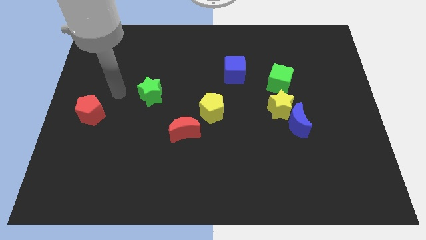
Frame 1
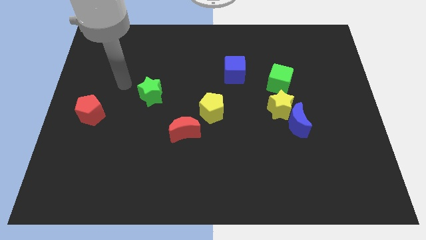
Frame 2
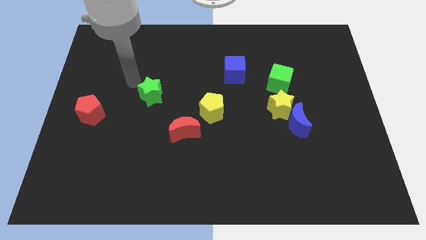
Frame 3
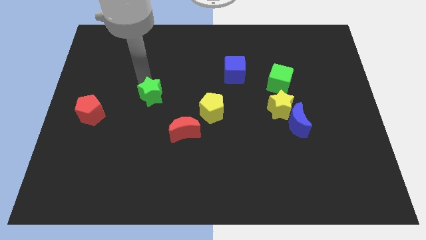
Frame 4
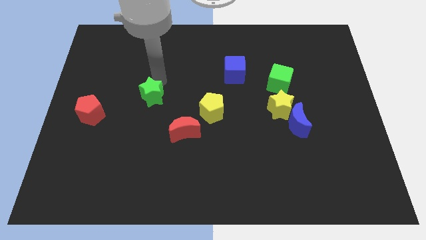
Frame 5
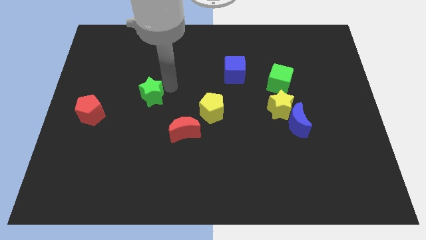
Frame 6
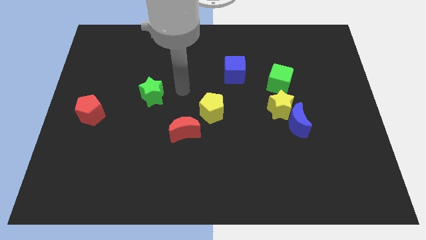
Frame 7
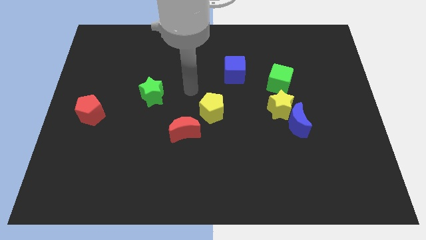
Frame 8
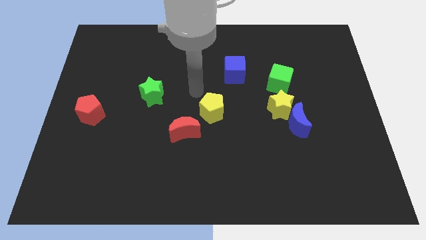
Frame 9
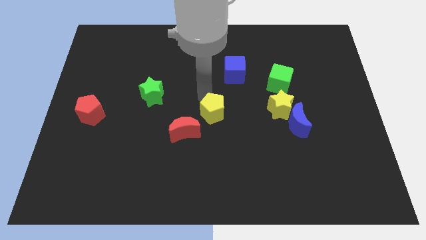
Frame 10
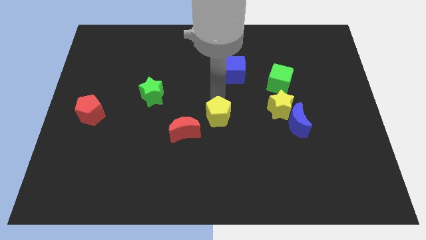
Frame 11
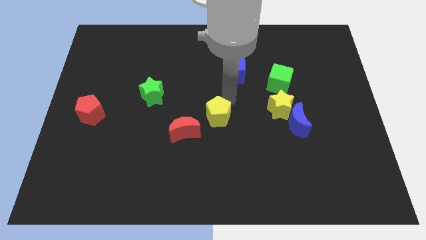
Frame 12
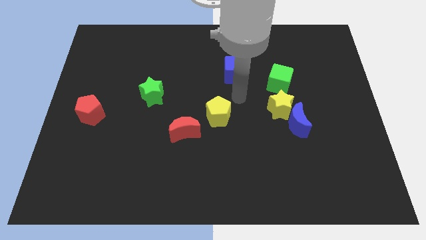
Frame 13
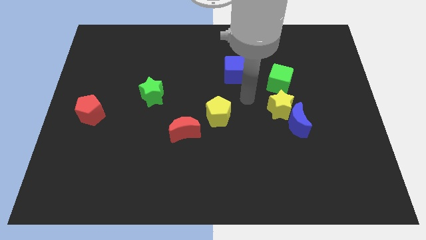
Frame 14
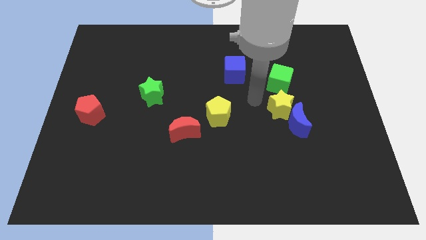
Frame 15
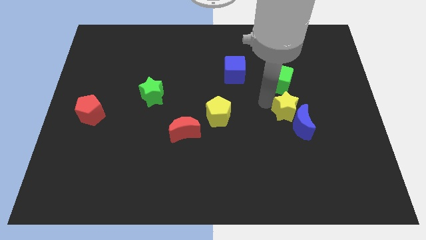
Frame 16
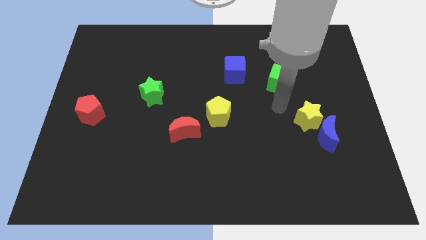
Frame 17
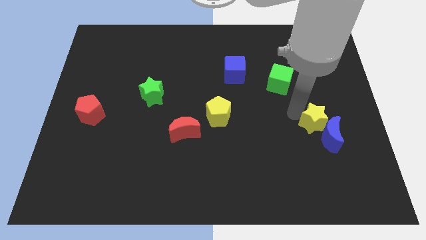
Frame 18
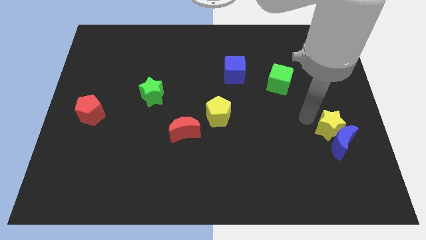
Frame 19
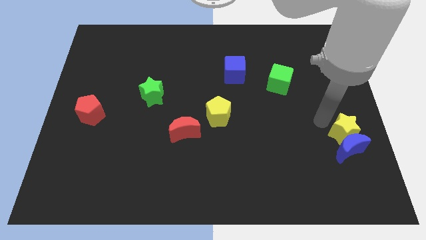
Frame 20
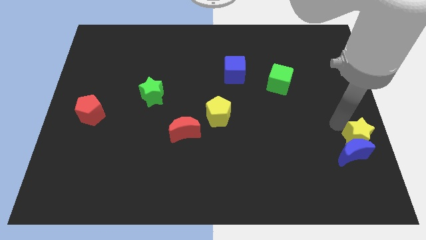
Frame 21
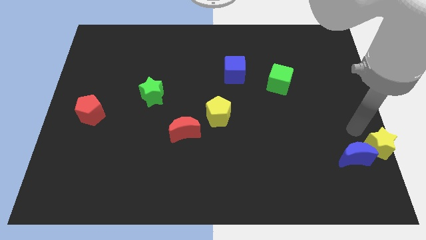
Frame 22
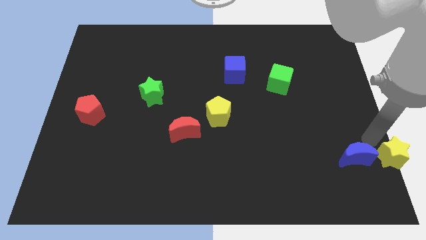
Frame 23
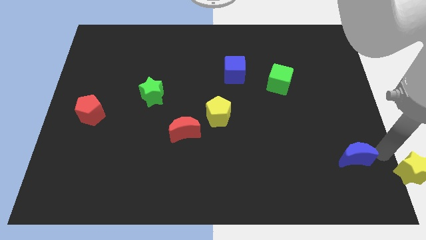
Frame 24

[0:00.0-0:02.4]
move the blue moon away from the yellow star

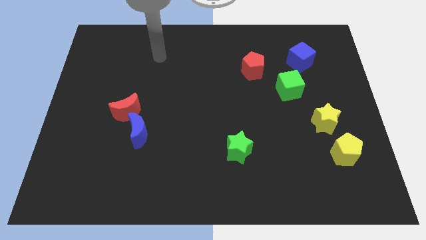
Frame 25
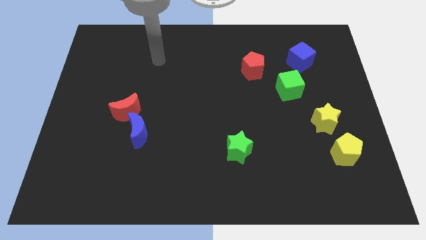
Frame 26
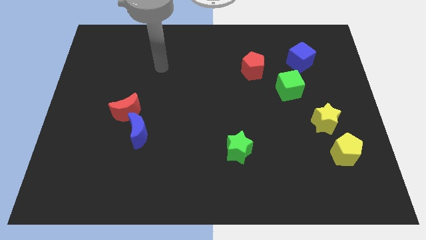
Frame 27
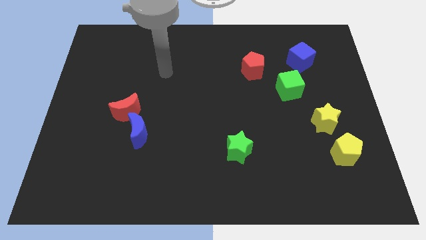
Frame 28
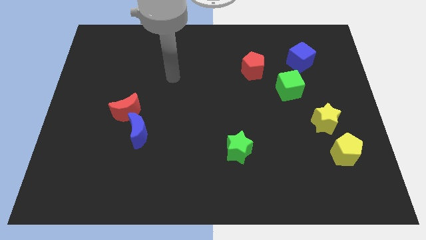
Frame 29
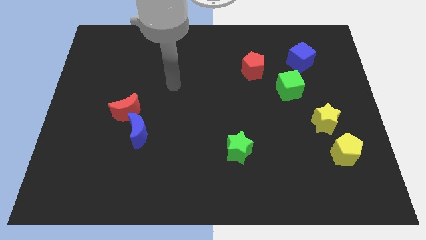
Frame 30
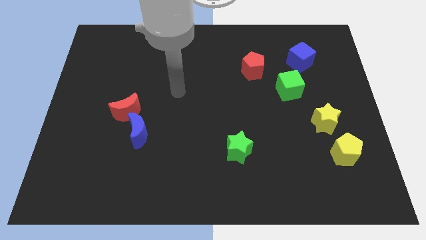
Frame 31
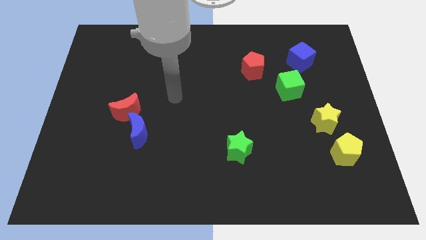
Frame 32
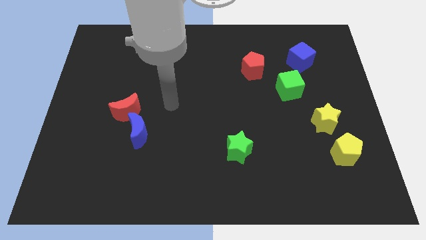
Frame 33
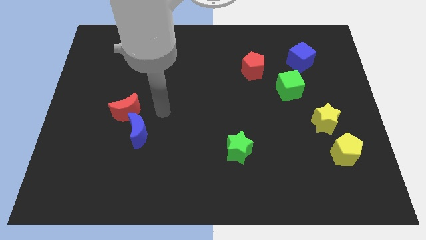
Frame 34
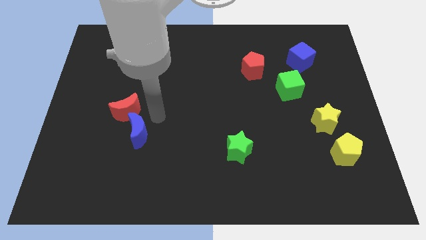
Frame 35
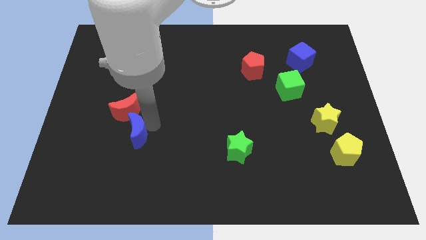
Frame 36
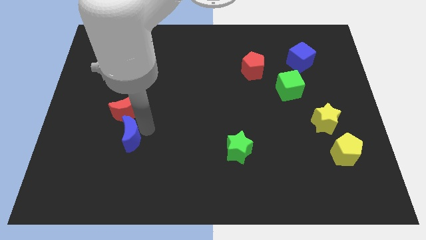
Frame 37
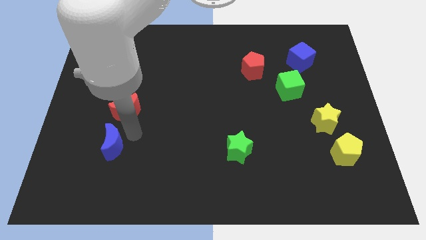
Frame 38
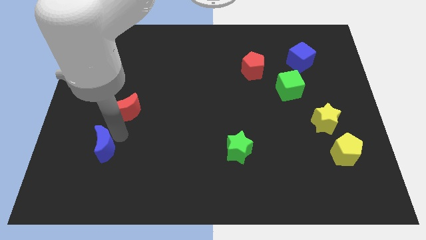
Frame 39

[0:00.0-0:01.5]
pull the red moon apart from the blue moon

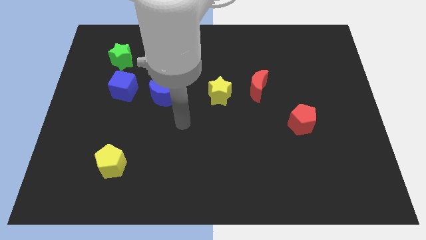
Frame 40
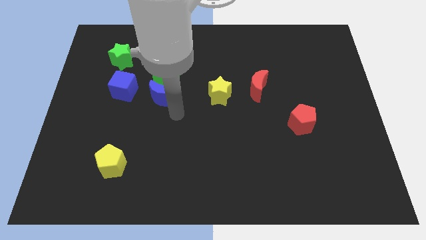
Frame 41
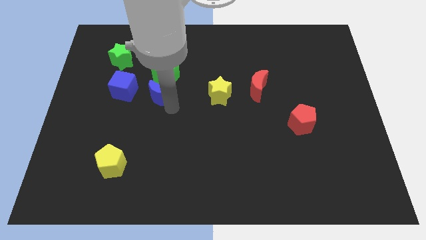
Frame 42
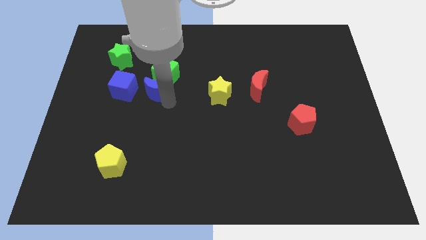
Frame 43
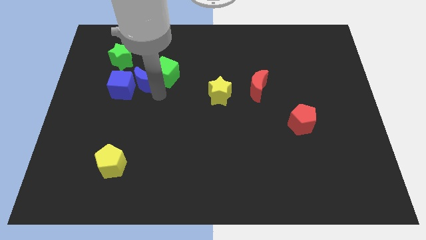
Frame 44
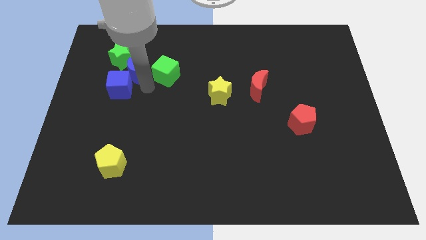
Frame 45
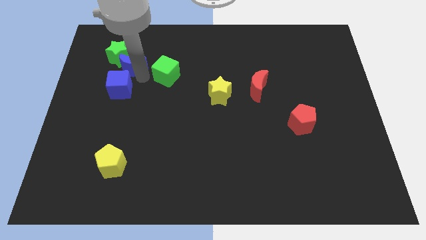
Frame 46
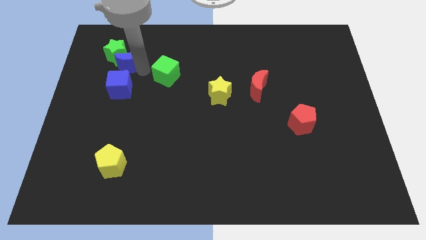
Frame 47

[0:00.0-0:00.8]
pull the green cube apart from the blue moon

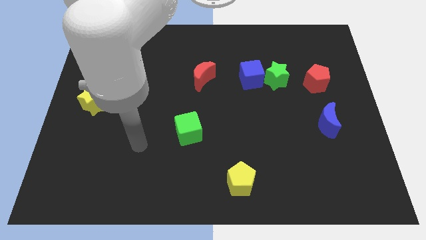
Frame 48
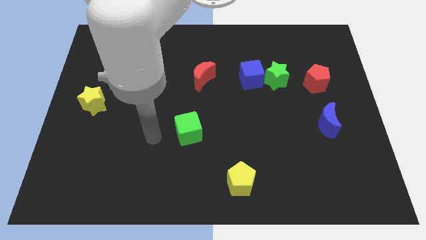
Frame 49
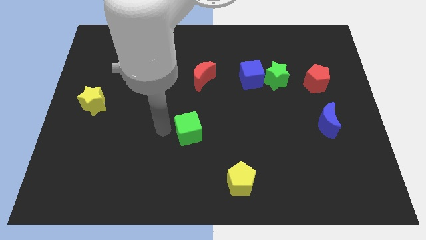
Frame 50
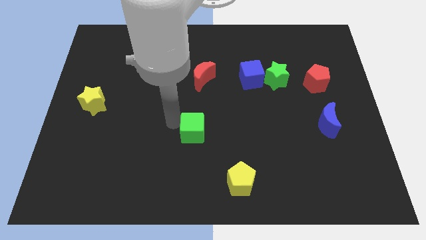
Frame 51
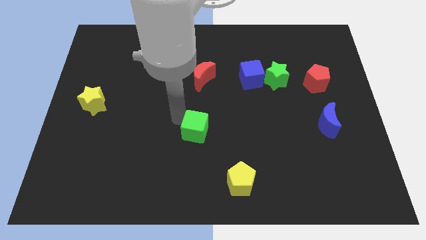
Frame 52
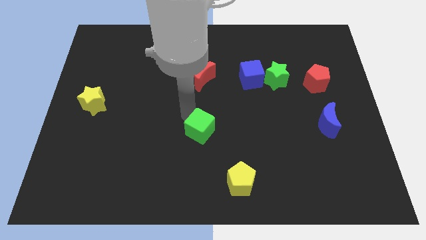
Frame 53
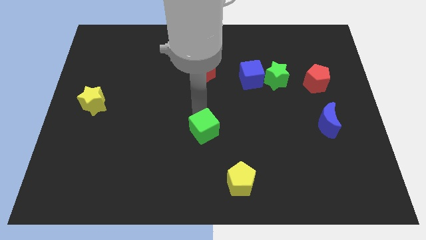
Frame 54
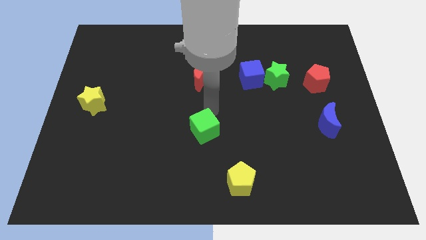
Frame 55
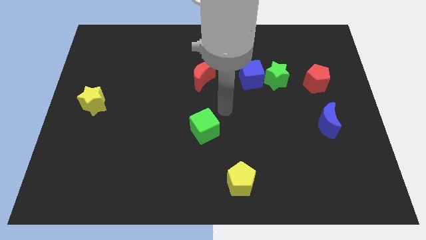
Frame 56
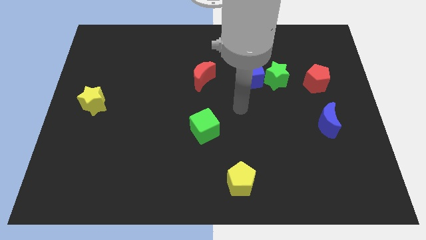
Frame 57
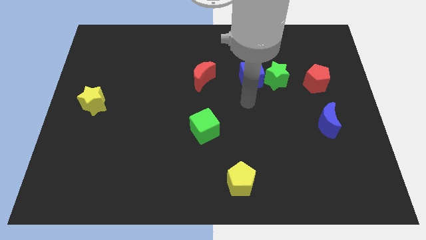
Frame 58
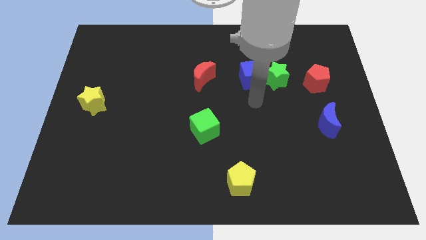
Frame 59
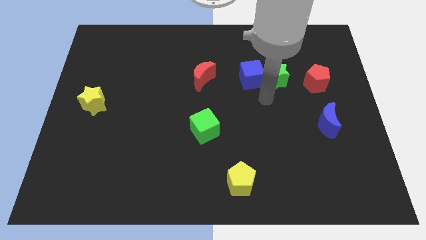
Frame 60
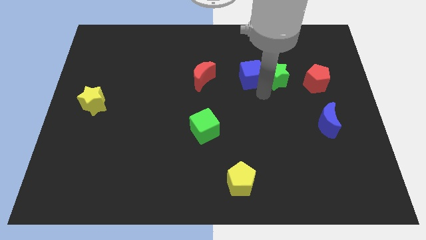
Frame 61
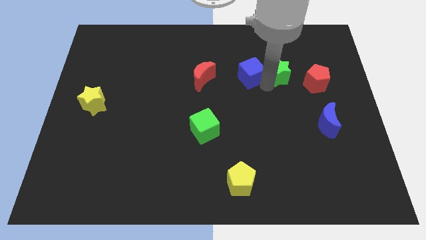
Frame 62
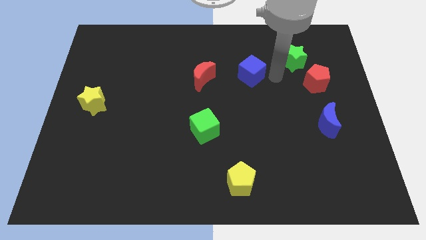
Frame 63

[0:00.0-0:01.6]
move the blue cube away from the green star

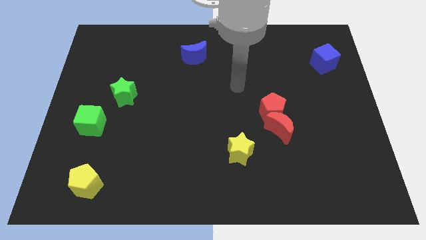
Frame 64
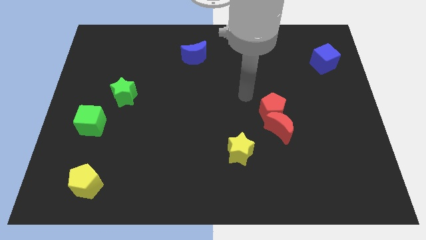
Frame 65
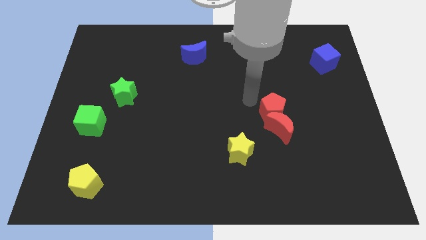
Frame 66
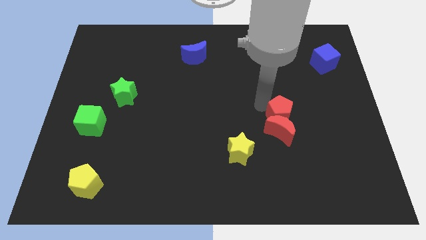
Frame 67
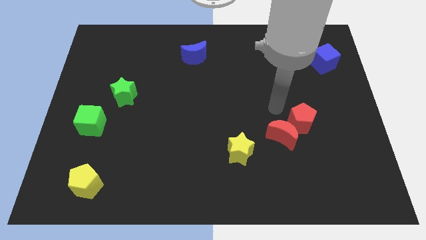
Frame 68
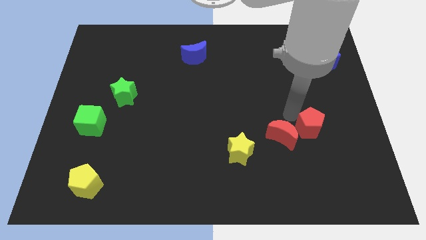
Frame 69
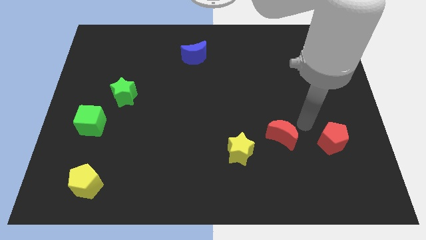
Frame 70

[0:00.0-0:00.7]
pull the red moon apart from the red pentagon

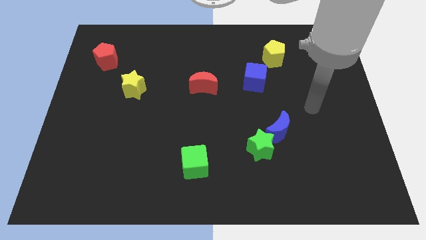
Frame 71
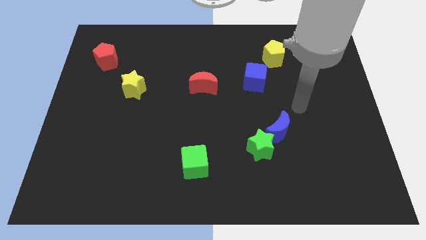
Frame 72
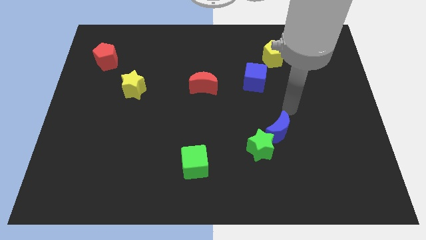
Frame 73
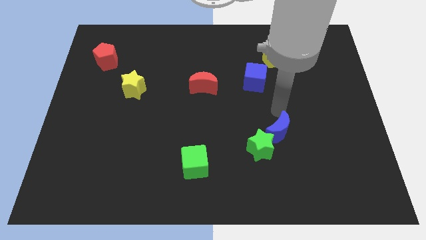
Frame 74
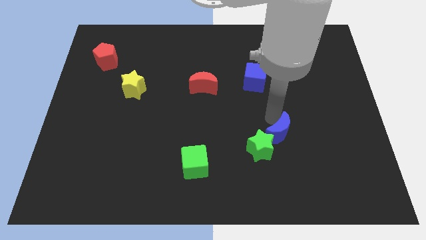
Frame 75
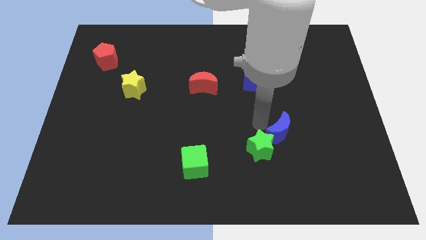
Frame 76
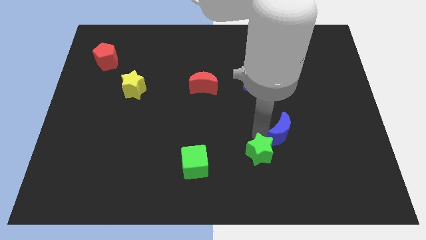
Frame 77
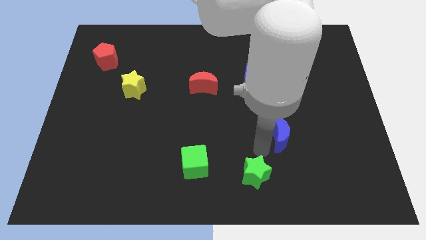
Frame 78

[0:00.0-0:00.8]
move the blue moon away from the green star

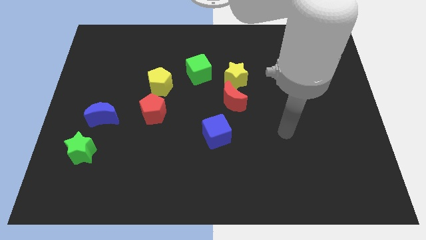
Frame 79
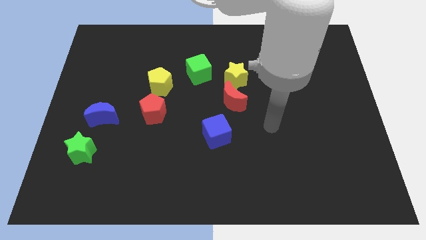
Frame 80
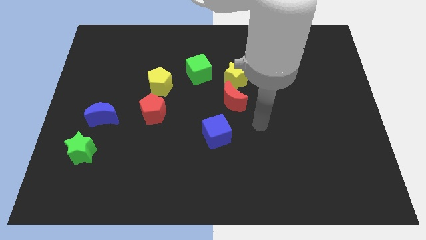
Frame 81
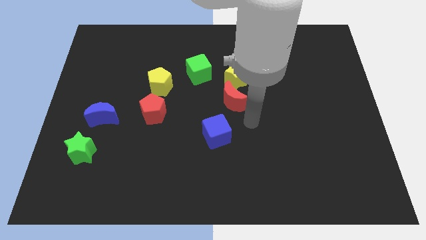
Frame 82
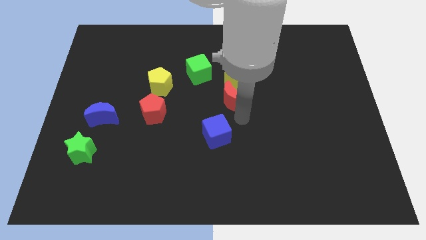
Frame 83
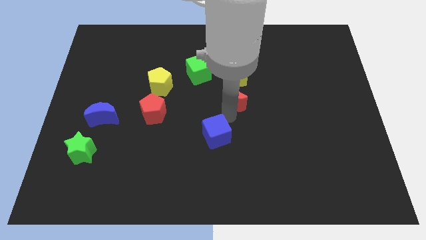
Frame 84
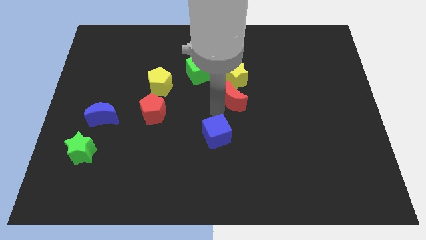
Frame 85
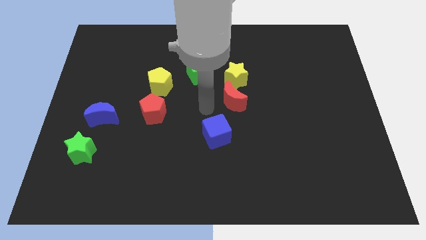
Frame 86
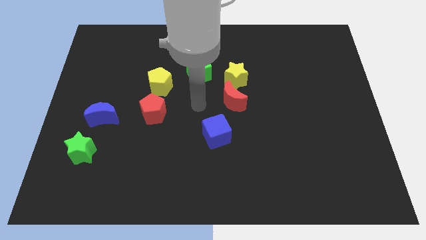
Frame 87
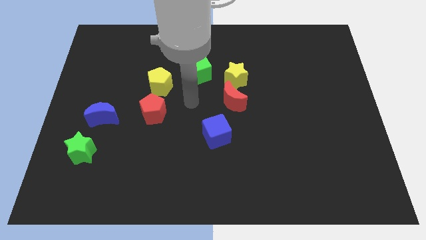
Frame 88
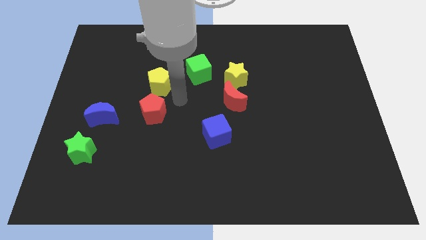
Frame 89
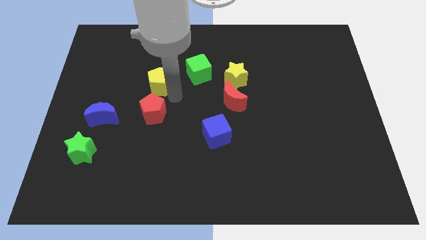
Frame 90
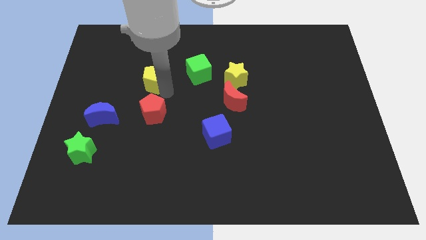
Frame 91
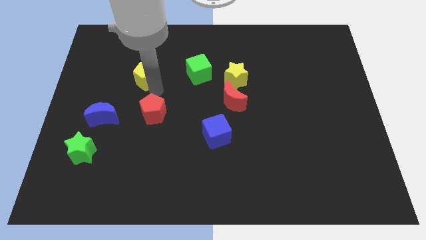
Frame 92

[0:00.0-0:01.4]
separate the red pentagon from the yellow pentagon

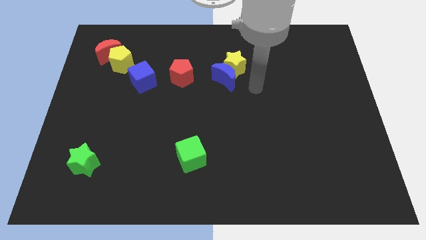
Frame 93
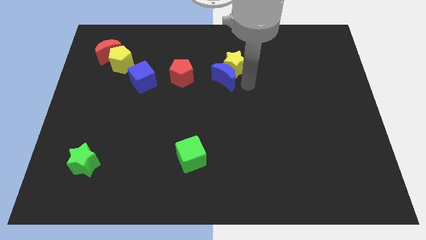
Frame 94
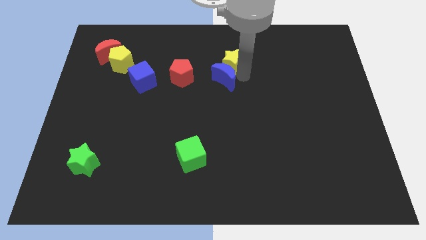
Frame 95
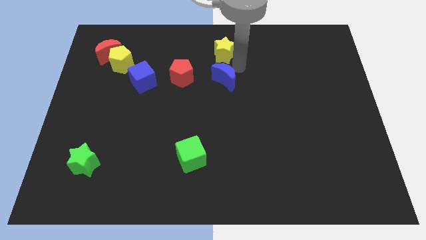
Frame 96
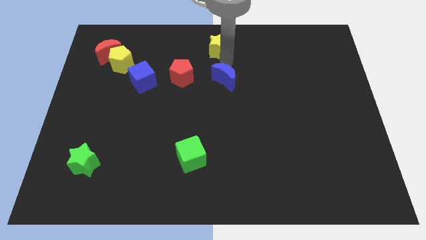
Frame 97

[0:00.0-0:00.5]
pull the blue moon apart from the yellow star
